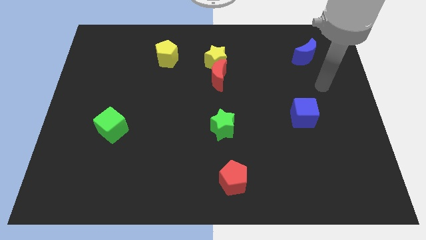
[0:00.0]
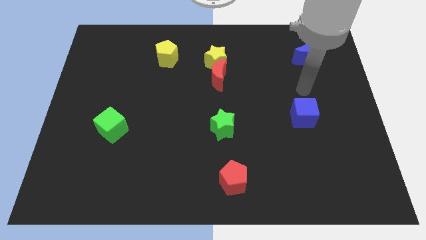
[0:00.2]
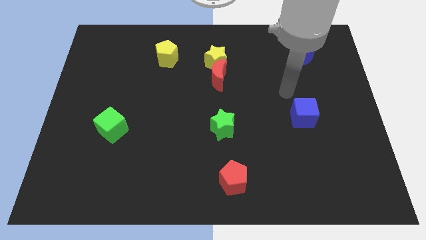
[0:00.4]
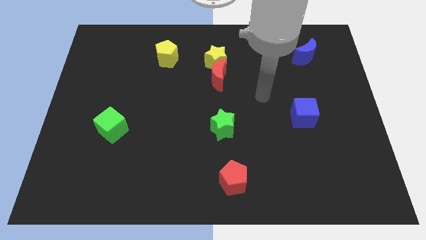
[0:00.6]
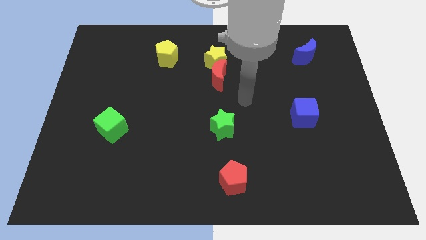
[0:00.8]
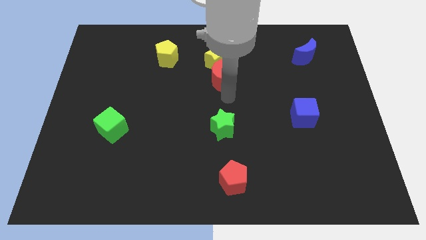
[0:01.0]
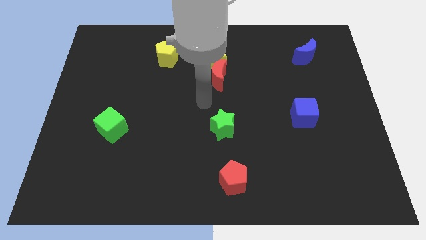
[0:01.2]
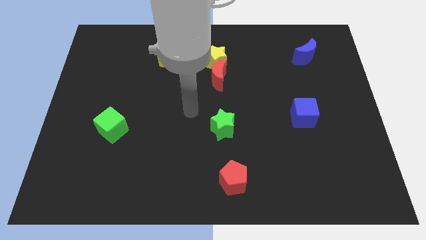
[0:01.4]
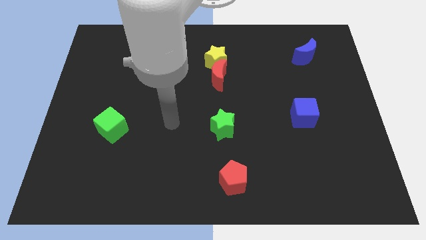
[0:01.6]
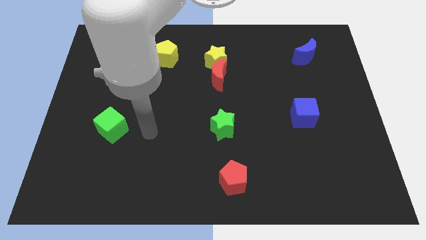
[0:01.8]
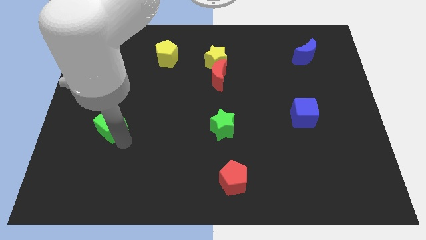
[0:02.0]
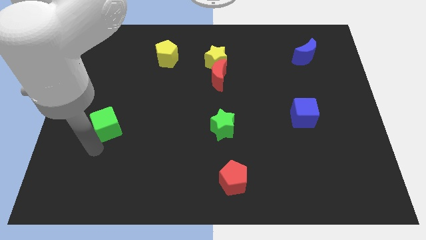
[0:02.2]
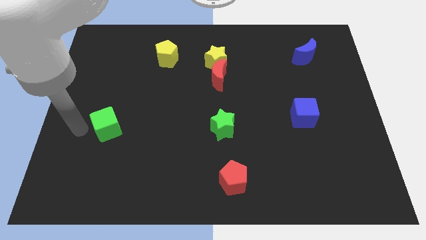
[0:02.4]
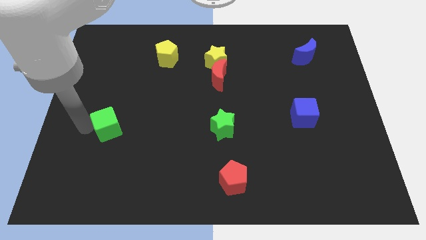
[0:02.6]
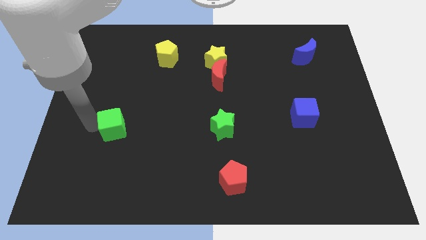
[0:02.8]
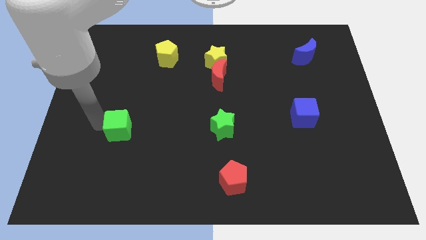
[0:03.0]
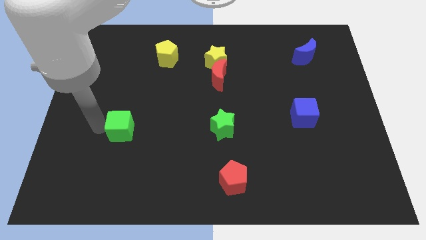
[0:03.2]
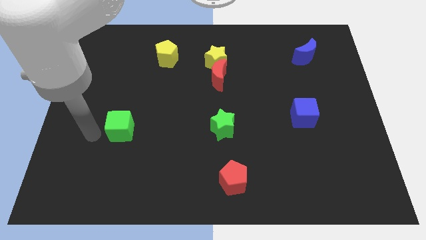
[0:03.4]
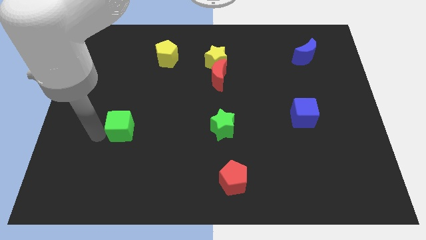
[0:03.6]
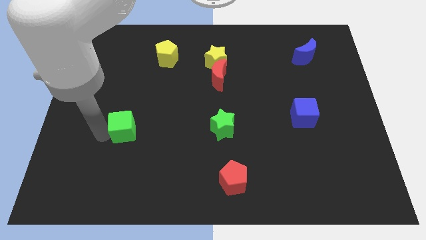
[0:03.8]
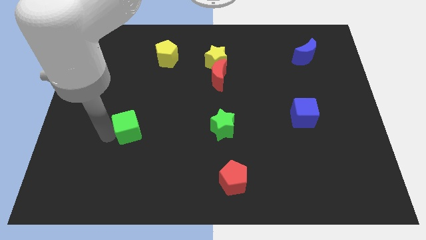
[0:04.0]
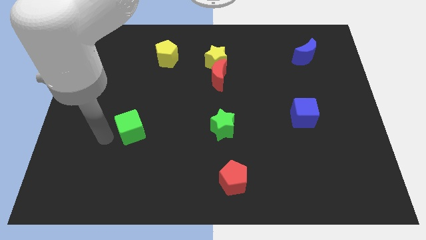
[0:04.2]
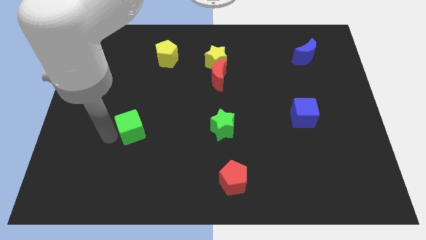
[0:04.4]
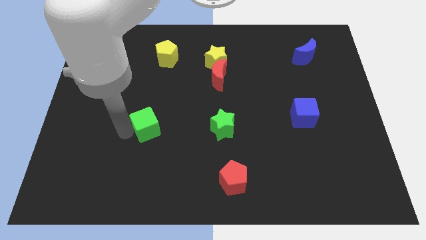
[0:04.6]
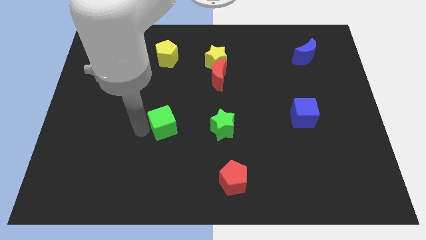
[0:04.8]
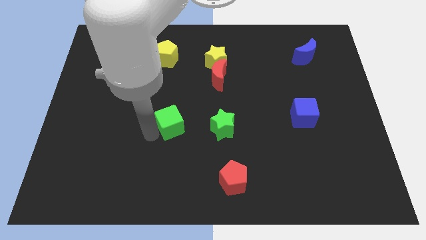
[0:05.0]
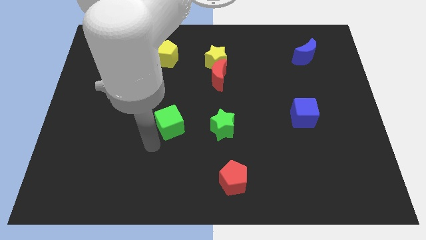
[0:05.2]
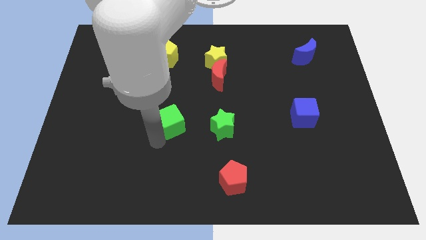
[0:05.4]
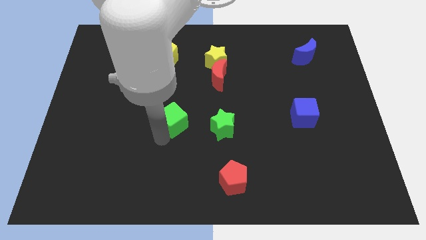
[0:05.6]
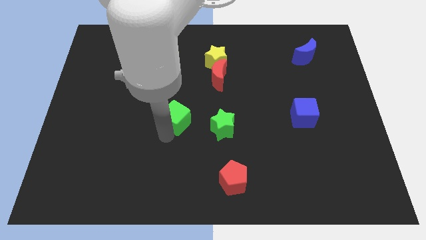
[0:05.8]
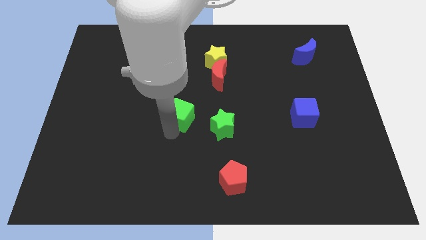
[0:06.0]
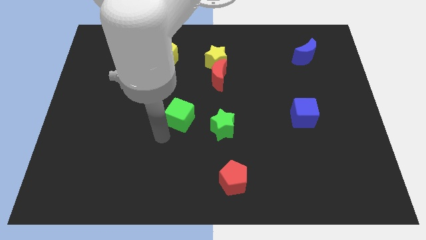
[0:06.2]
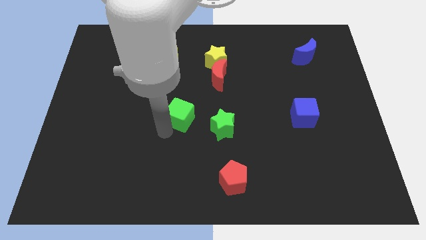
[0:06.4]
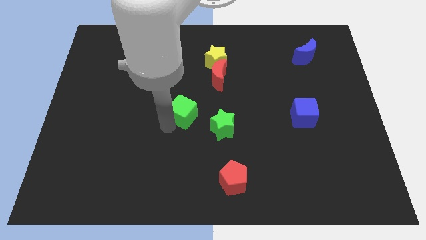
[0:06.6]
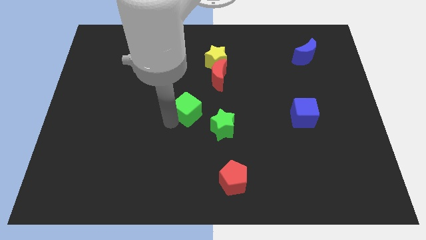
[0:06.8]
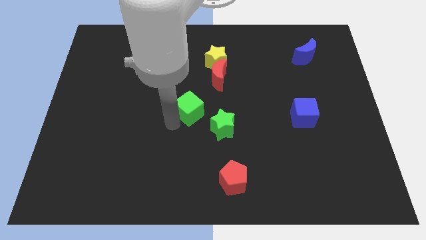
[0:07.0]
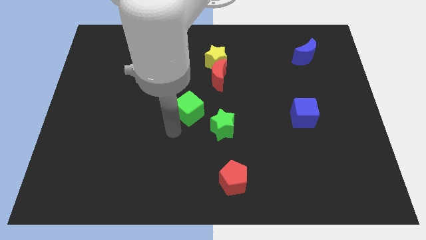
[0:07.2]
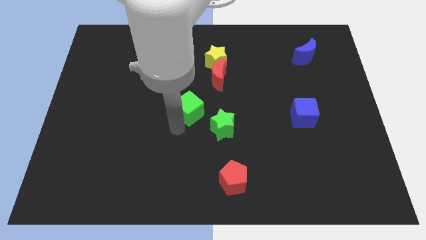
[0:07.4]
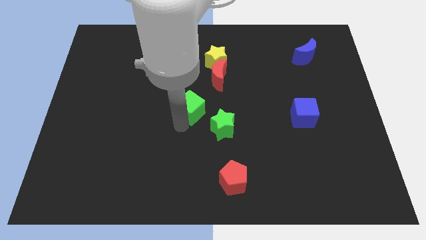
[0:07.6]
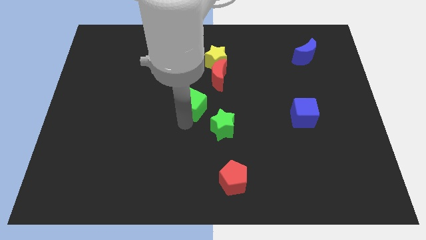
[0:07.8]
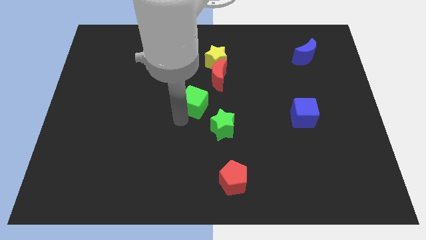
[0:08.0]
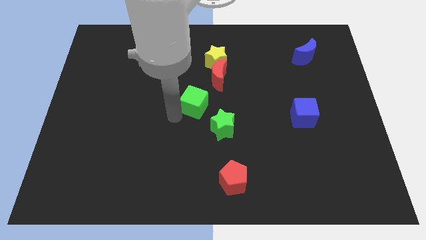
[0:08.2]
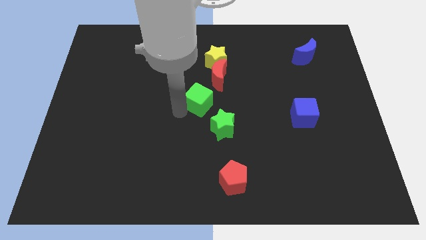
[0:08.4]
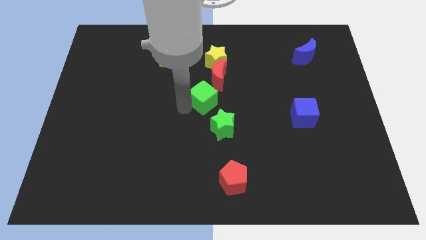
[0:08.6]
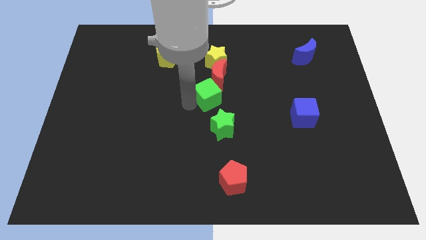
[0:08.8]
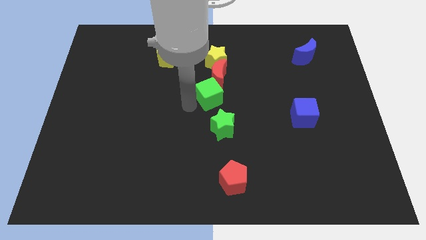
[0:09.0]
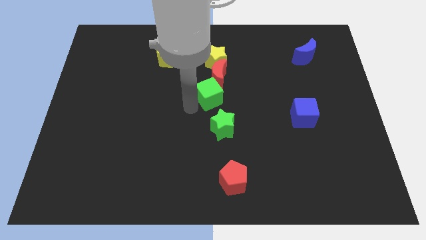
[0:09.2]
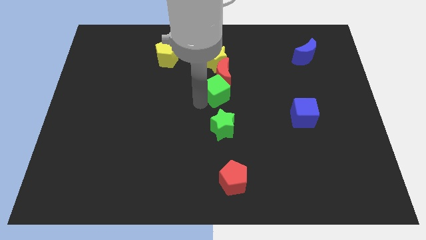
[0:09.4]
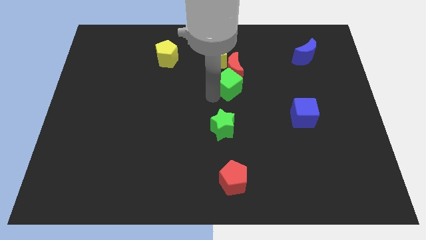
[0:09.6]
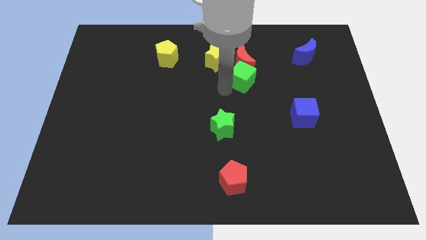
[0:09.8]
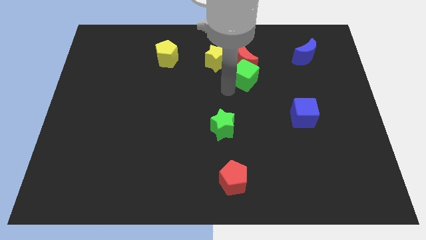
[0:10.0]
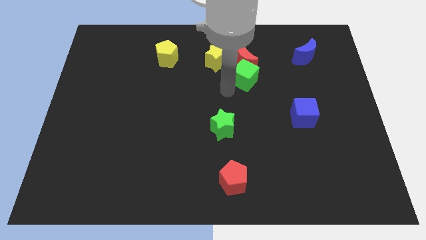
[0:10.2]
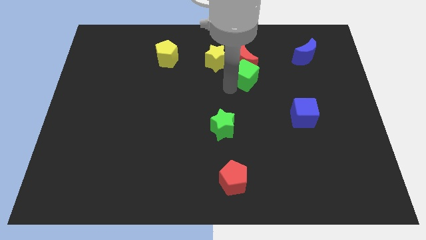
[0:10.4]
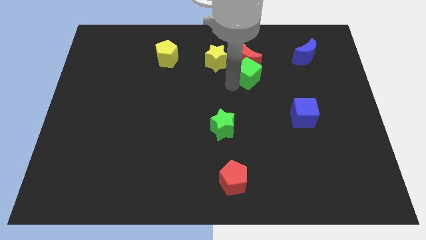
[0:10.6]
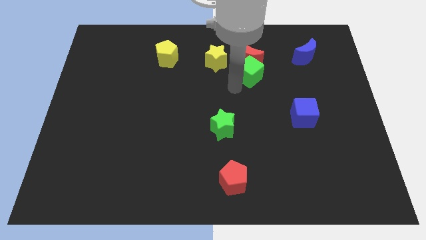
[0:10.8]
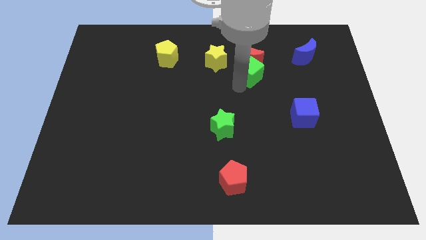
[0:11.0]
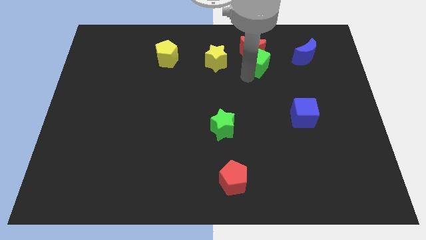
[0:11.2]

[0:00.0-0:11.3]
move the green cube left of the blue moon

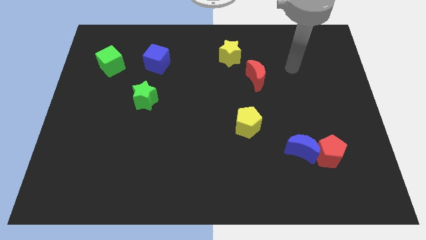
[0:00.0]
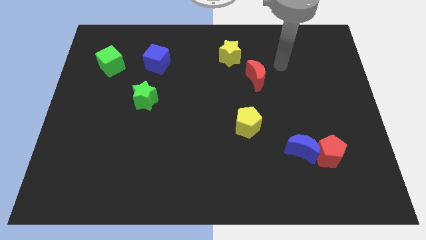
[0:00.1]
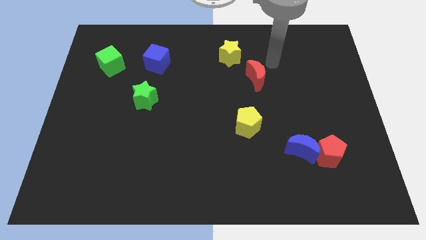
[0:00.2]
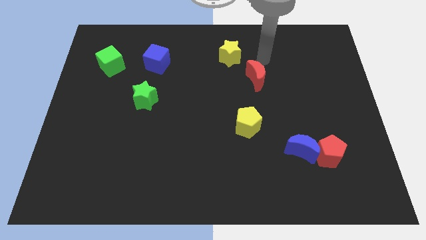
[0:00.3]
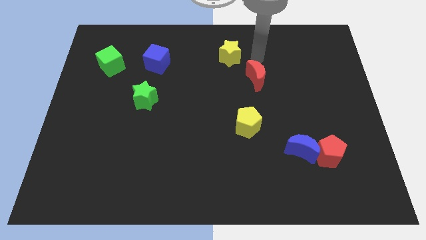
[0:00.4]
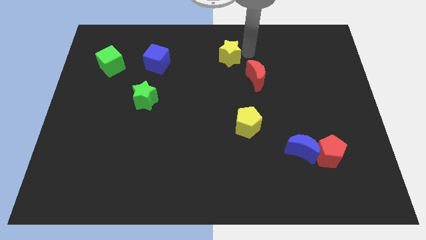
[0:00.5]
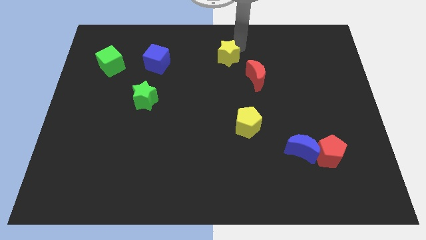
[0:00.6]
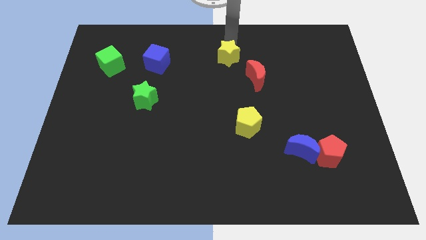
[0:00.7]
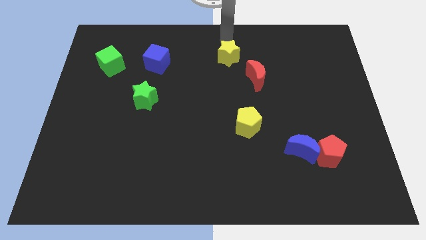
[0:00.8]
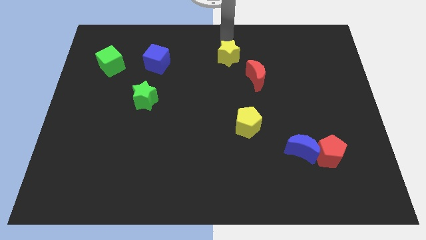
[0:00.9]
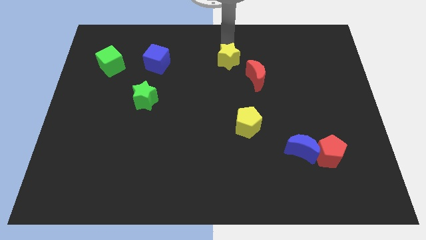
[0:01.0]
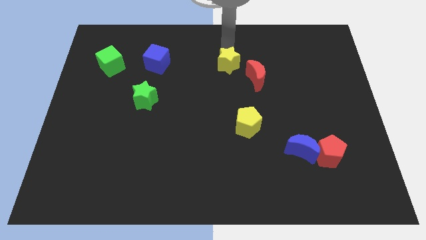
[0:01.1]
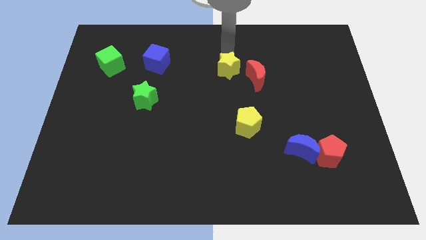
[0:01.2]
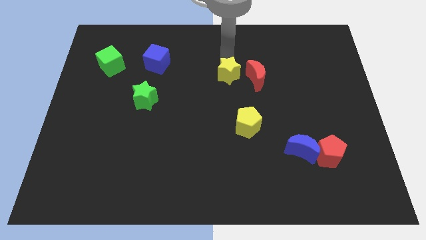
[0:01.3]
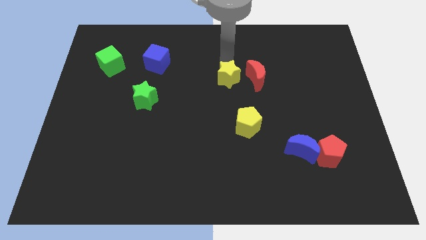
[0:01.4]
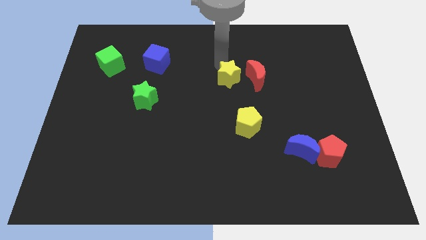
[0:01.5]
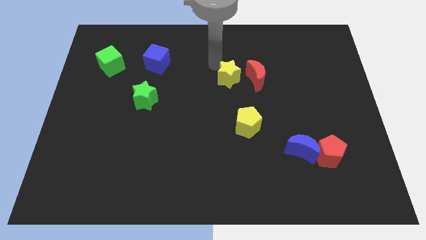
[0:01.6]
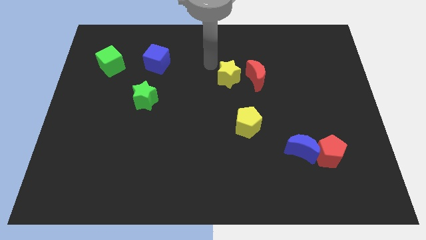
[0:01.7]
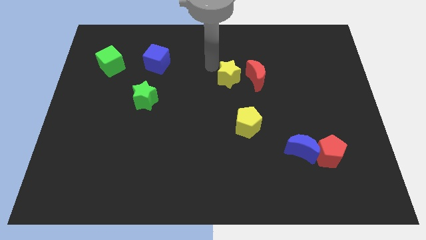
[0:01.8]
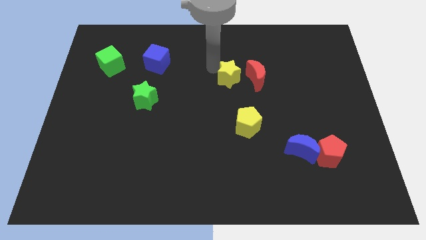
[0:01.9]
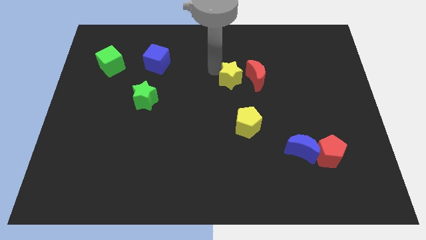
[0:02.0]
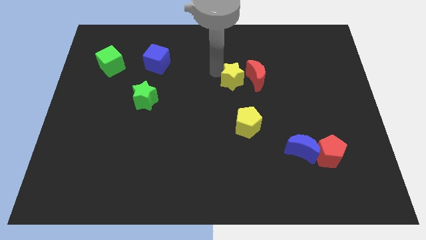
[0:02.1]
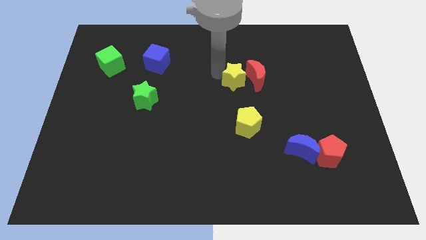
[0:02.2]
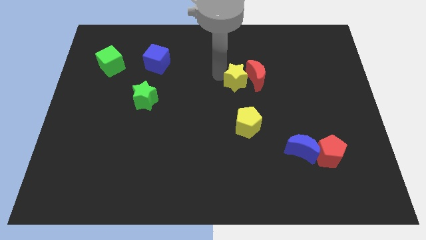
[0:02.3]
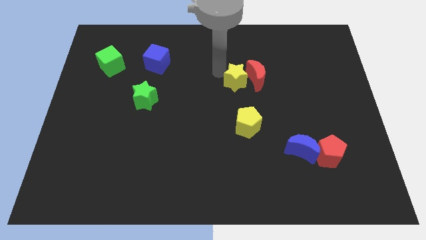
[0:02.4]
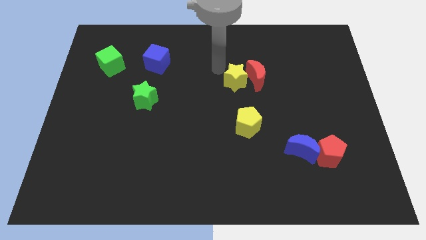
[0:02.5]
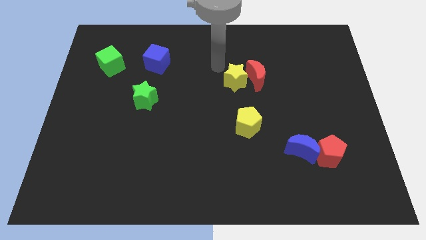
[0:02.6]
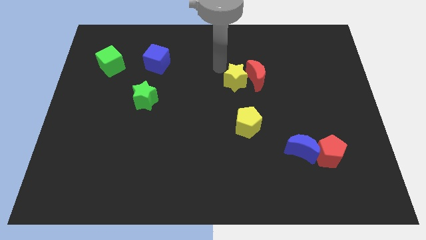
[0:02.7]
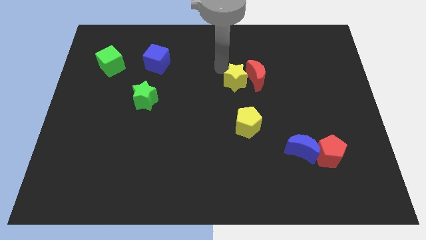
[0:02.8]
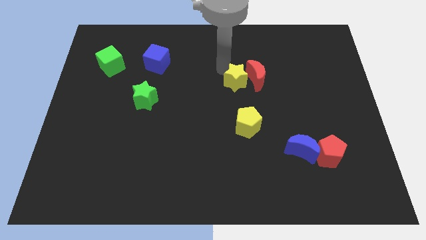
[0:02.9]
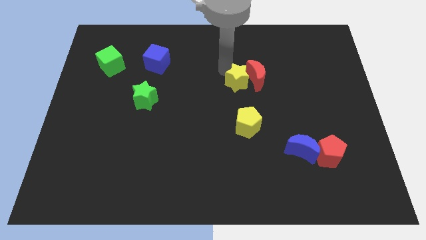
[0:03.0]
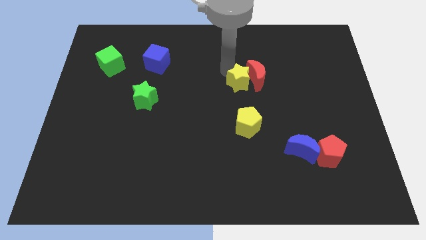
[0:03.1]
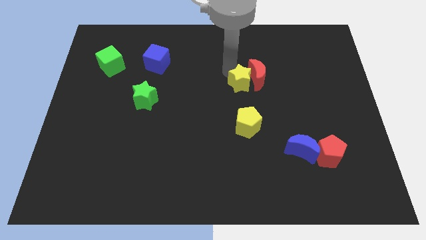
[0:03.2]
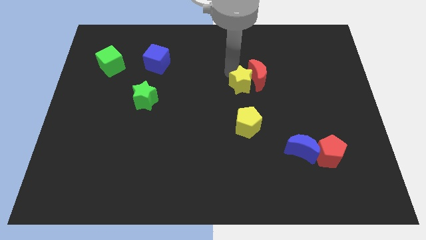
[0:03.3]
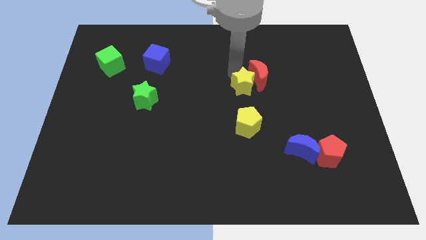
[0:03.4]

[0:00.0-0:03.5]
move the yellow star below the red moon
